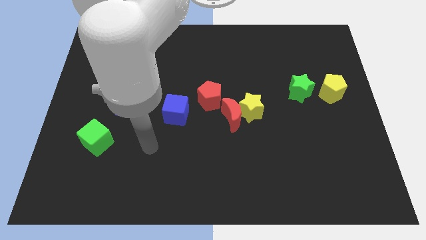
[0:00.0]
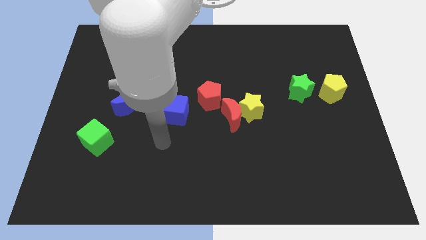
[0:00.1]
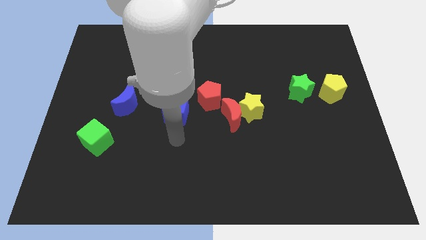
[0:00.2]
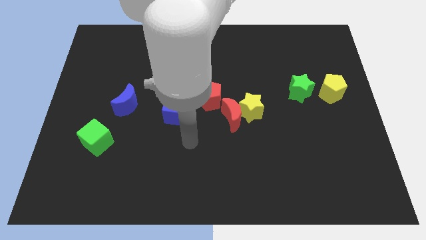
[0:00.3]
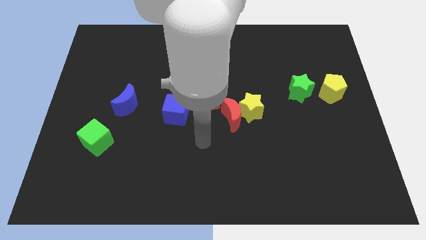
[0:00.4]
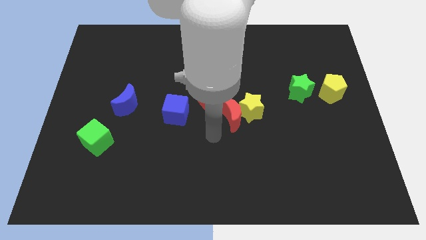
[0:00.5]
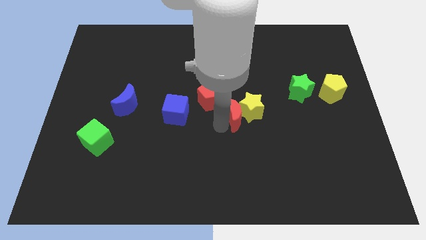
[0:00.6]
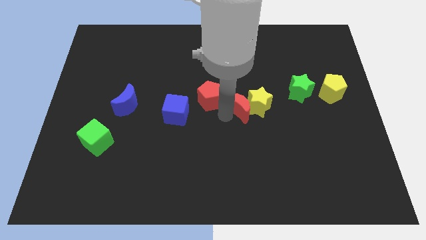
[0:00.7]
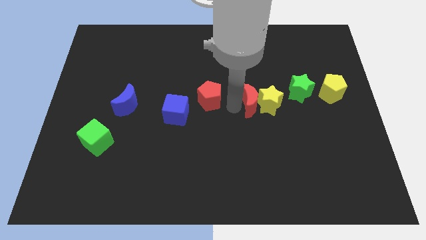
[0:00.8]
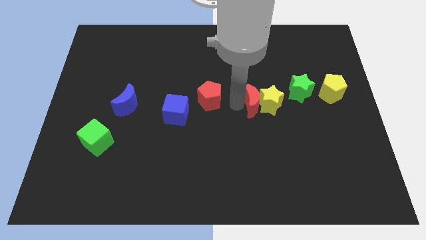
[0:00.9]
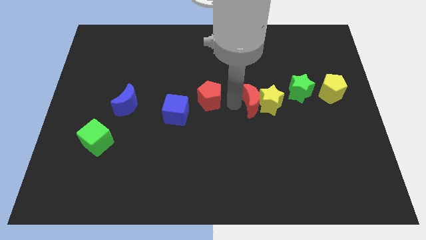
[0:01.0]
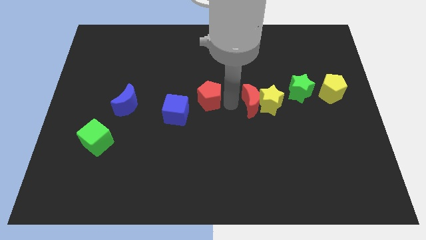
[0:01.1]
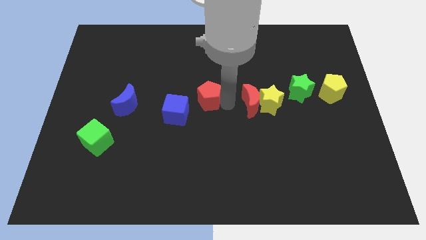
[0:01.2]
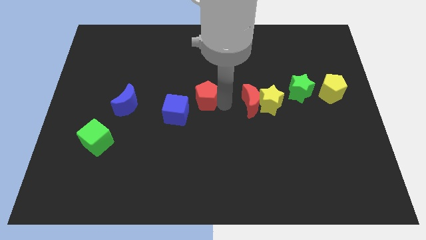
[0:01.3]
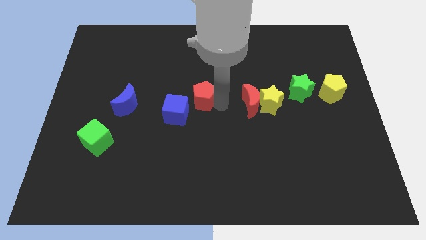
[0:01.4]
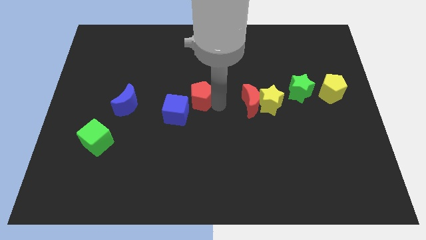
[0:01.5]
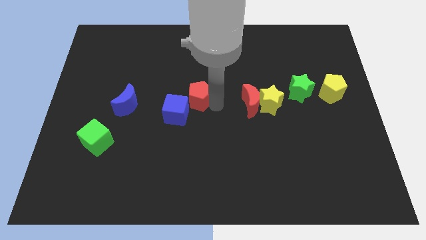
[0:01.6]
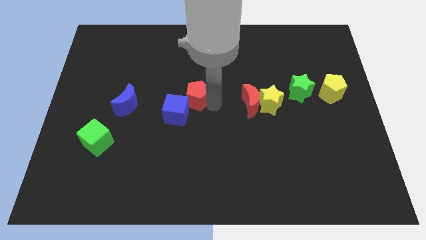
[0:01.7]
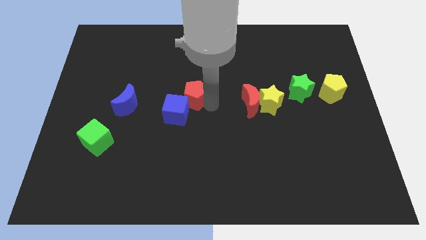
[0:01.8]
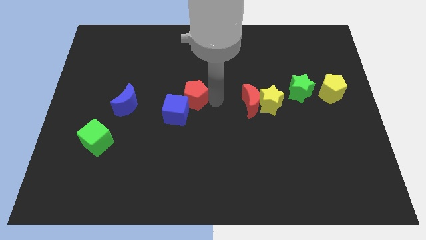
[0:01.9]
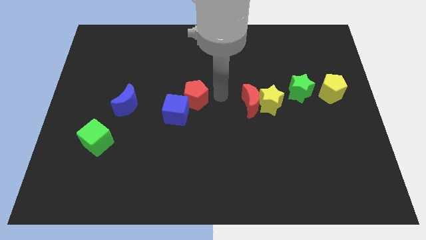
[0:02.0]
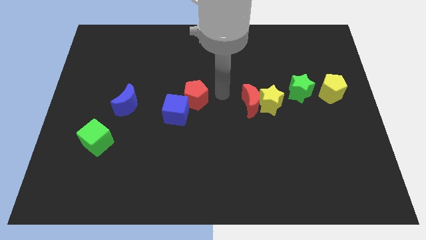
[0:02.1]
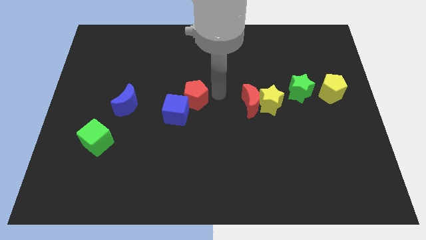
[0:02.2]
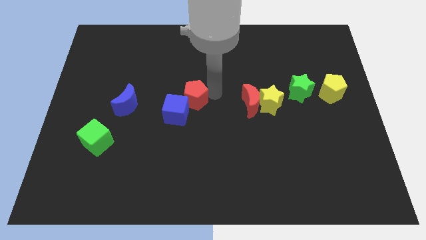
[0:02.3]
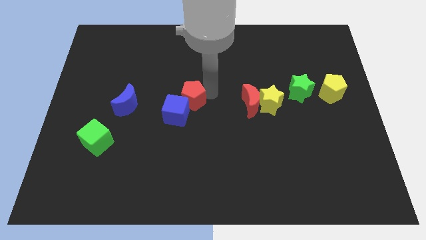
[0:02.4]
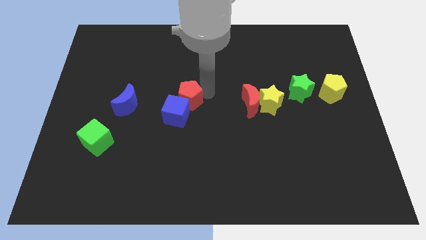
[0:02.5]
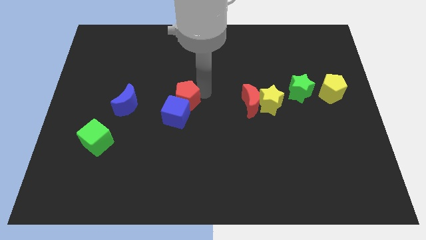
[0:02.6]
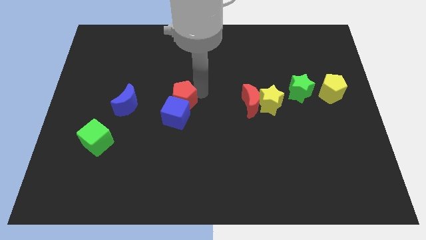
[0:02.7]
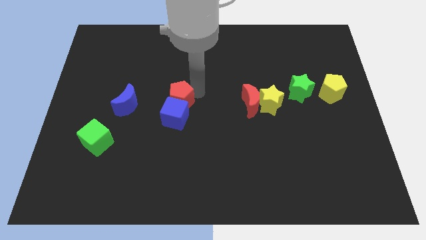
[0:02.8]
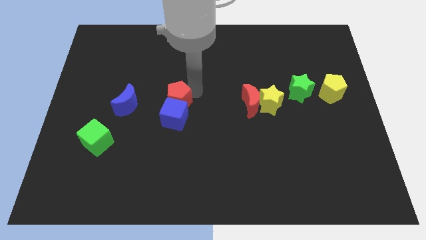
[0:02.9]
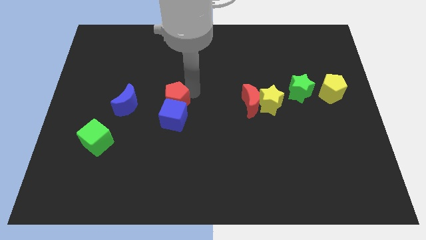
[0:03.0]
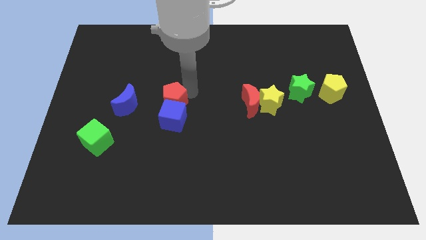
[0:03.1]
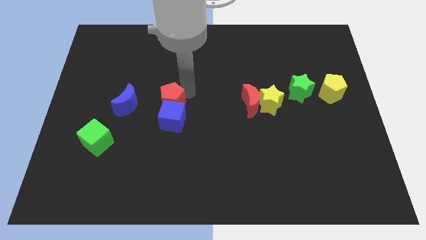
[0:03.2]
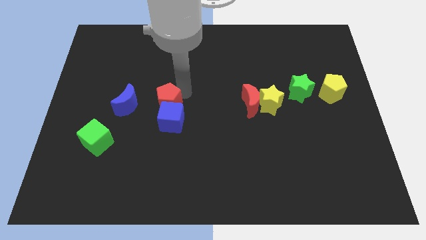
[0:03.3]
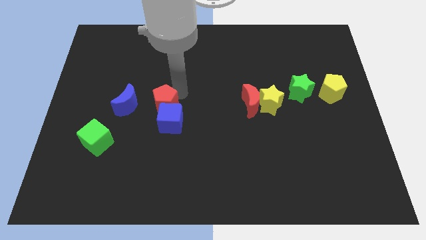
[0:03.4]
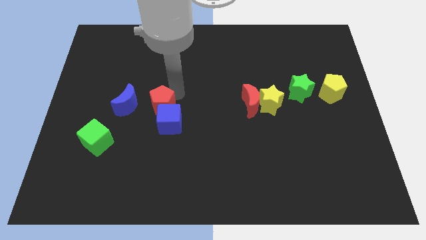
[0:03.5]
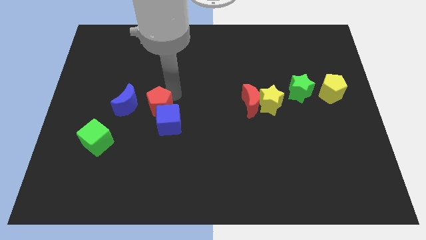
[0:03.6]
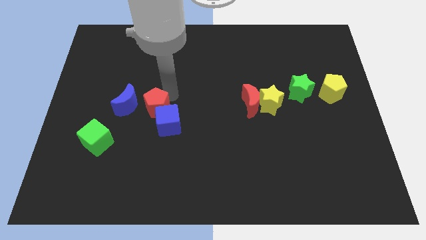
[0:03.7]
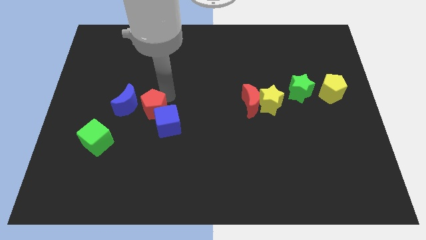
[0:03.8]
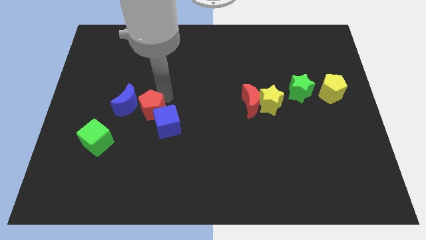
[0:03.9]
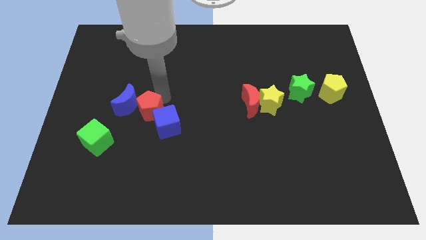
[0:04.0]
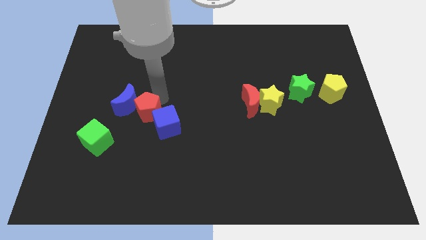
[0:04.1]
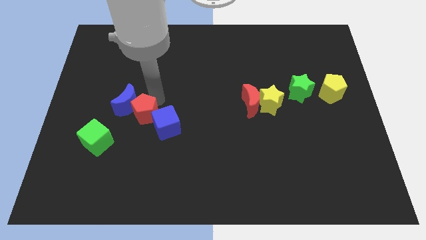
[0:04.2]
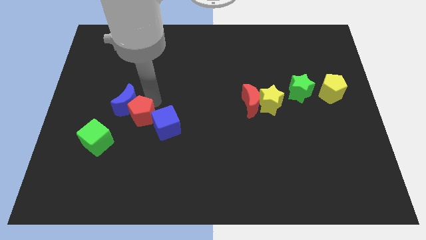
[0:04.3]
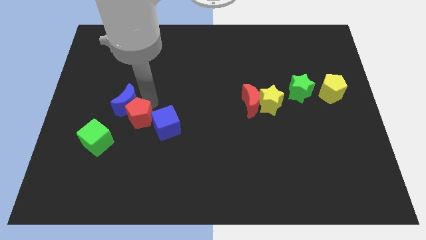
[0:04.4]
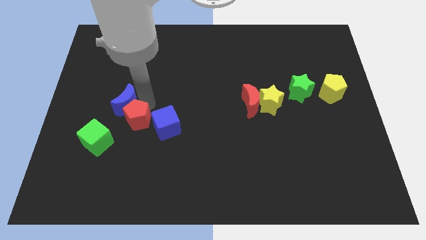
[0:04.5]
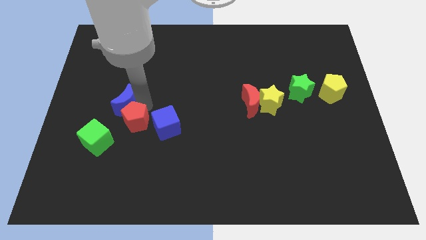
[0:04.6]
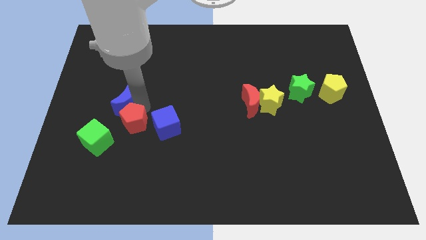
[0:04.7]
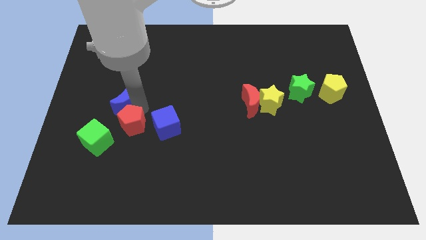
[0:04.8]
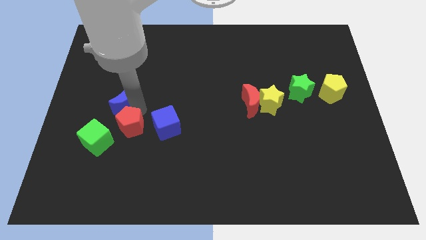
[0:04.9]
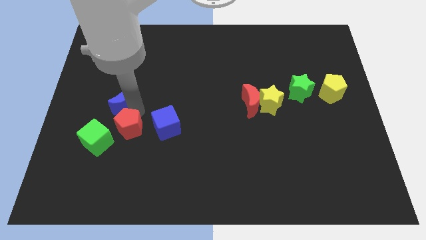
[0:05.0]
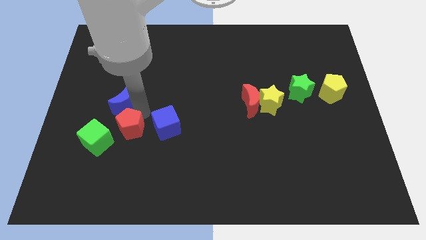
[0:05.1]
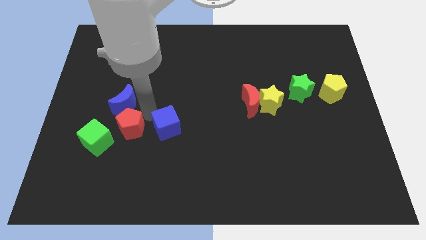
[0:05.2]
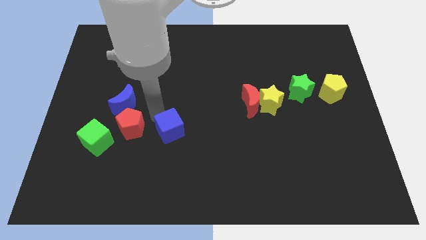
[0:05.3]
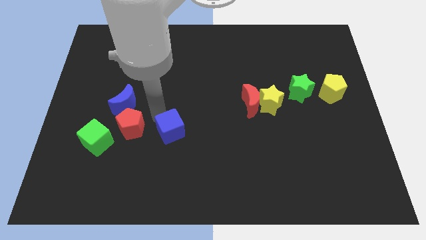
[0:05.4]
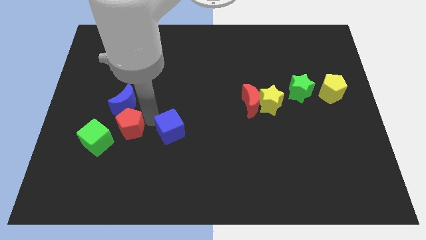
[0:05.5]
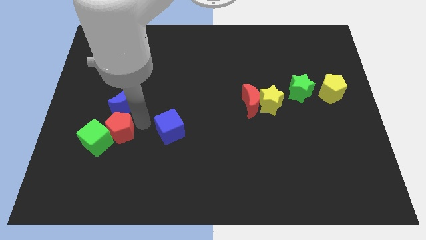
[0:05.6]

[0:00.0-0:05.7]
move the red pentagon close to the green cube

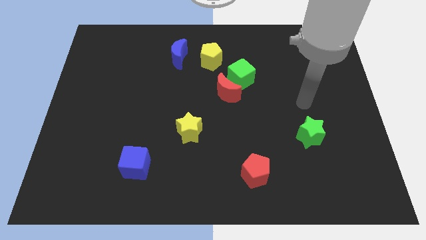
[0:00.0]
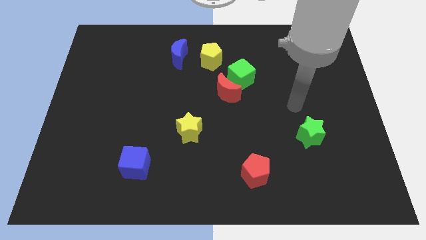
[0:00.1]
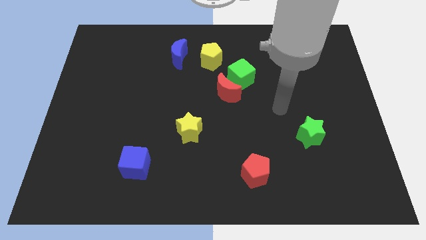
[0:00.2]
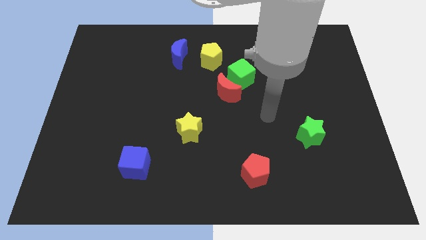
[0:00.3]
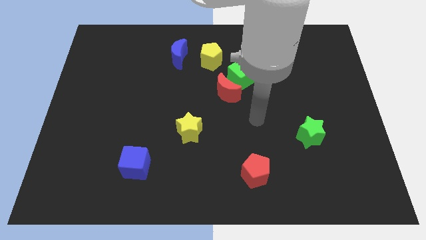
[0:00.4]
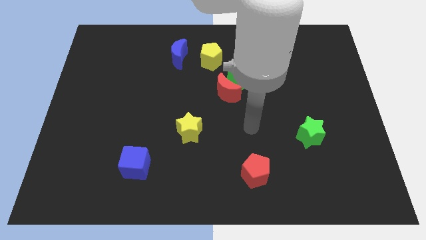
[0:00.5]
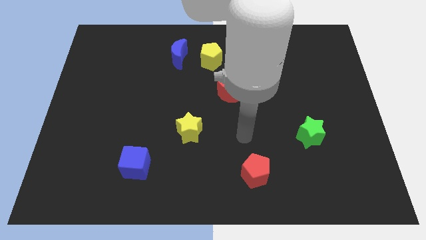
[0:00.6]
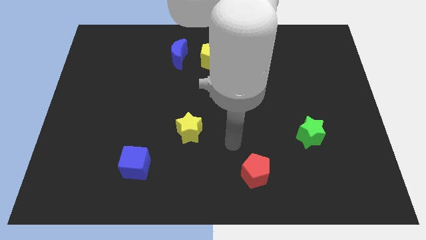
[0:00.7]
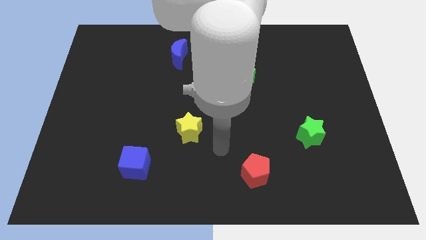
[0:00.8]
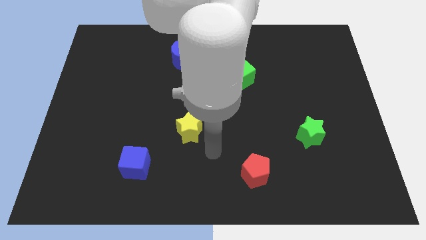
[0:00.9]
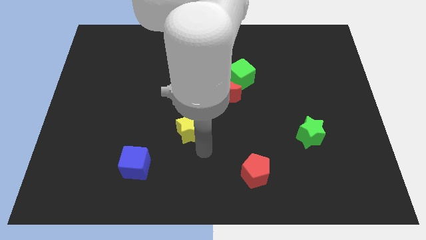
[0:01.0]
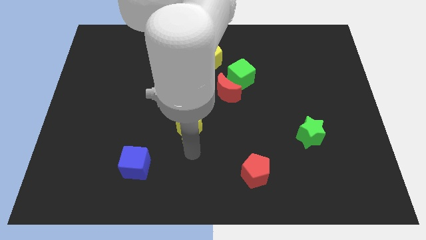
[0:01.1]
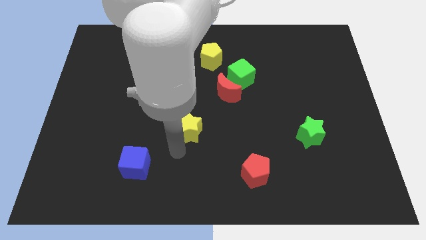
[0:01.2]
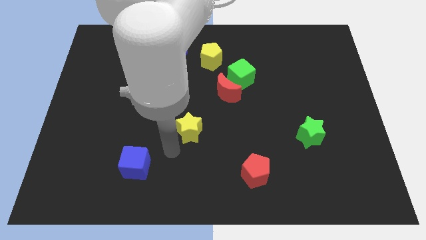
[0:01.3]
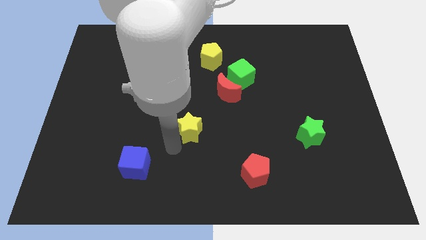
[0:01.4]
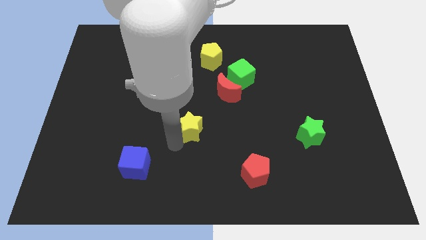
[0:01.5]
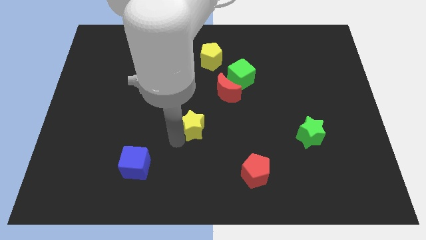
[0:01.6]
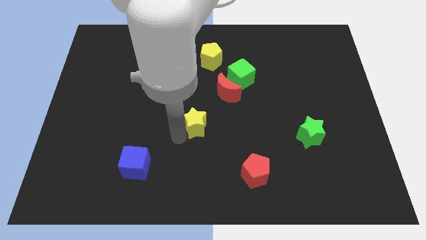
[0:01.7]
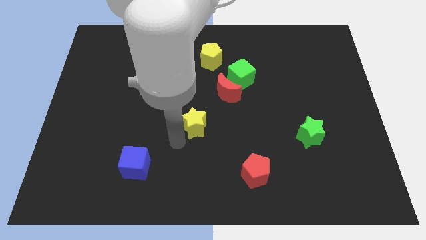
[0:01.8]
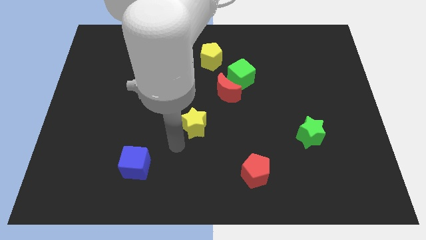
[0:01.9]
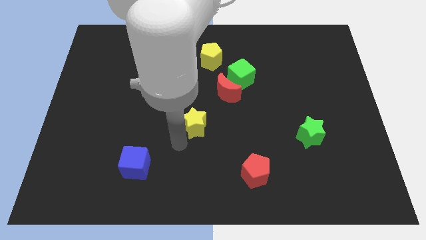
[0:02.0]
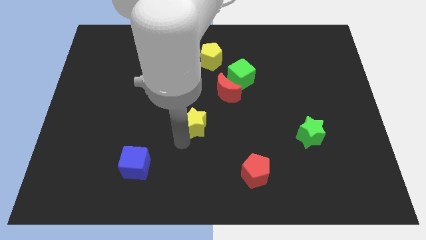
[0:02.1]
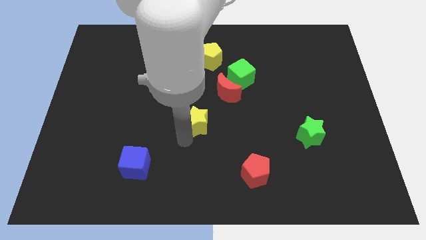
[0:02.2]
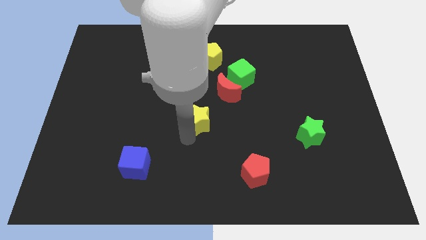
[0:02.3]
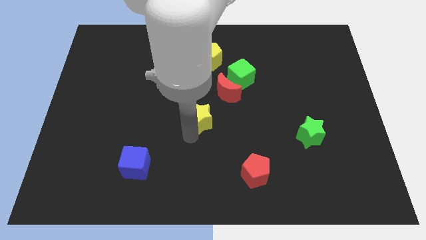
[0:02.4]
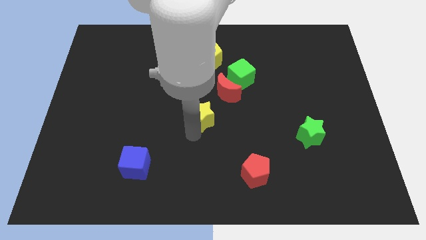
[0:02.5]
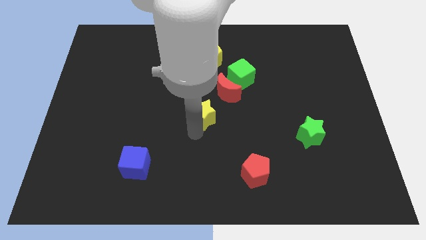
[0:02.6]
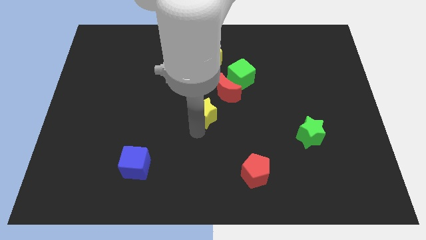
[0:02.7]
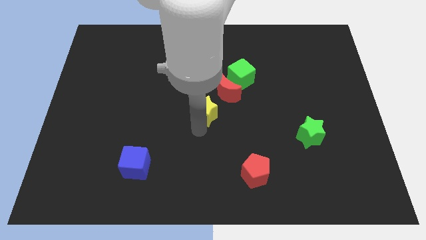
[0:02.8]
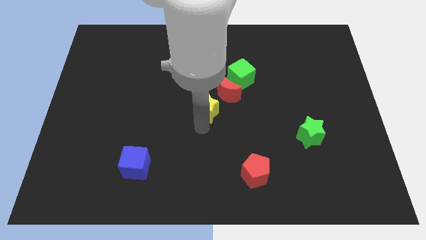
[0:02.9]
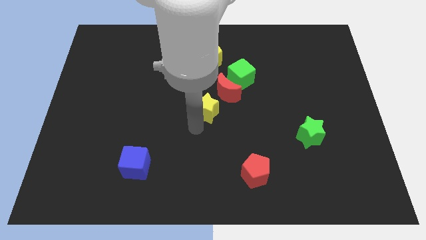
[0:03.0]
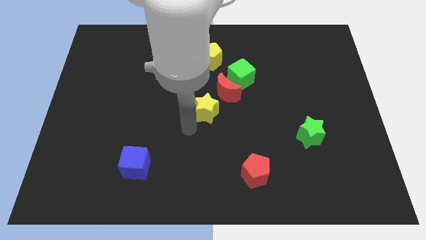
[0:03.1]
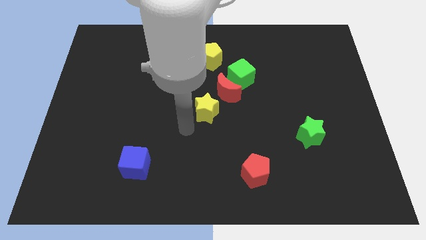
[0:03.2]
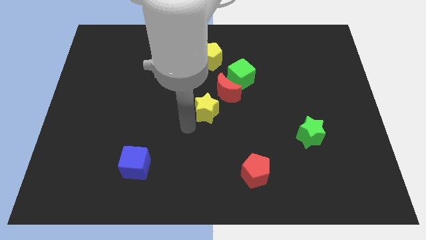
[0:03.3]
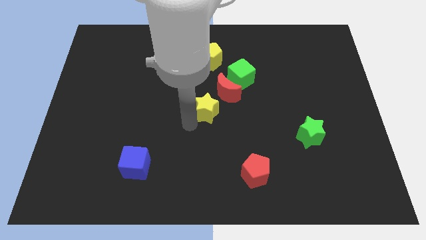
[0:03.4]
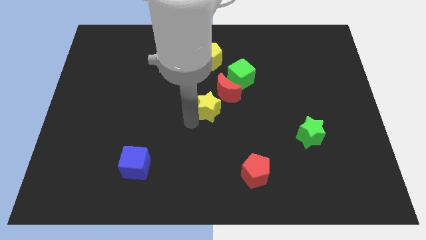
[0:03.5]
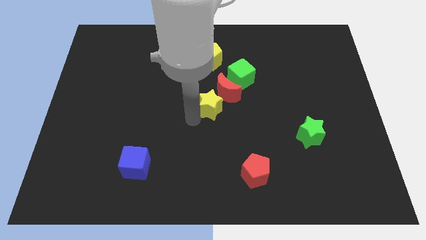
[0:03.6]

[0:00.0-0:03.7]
push the yellow star towards the red moon
